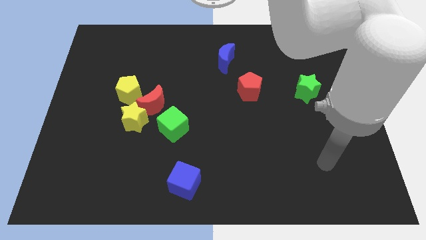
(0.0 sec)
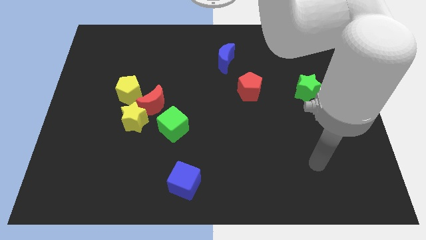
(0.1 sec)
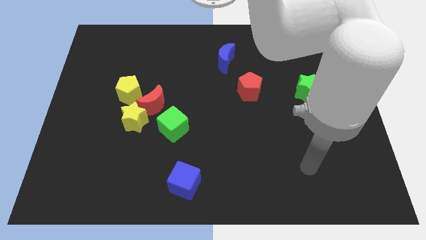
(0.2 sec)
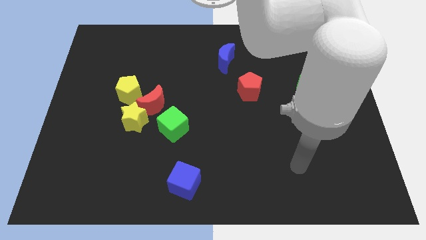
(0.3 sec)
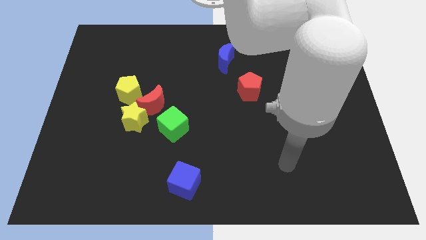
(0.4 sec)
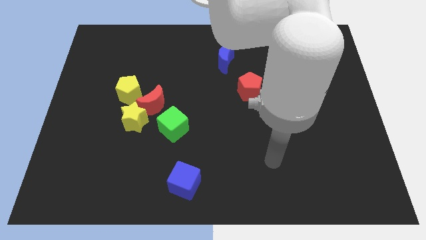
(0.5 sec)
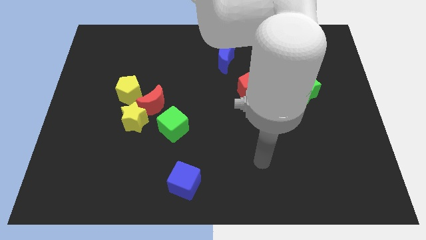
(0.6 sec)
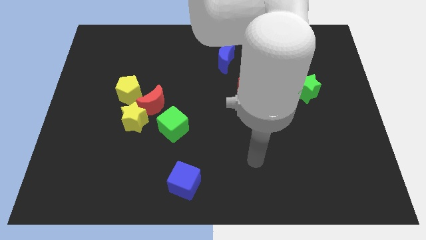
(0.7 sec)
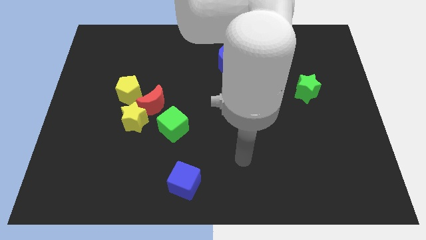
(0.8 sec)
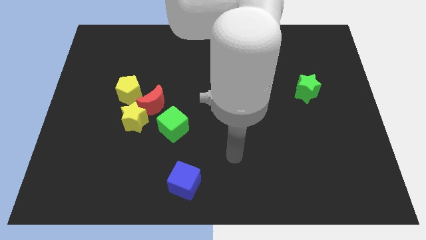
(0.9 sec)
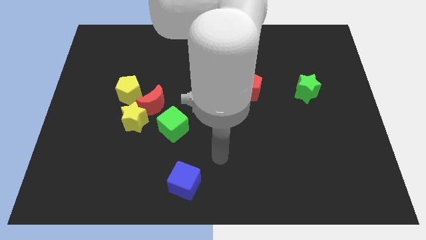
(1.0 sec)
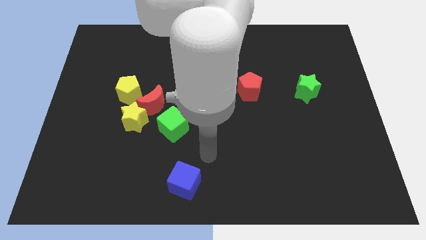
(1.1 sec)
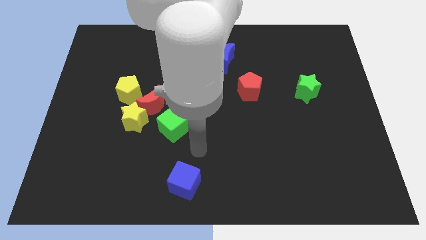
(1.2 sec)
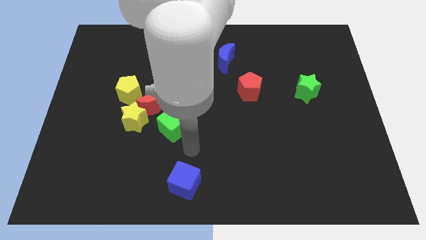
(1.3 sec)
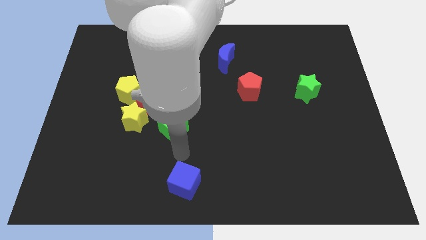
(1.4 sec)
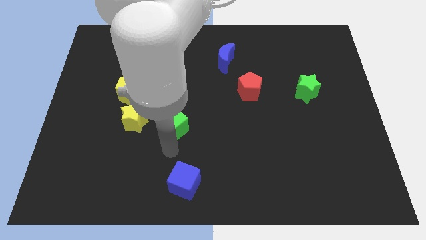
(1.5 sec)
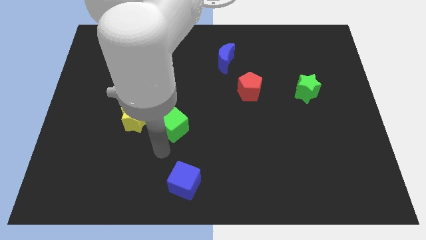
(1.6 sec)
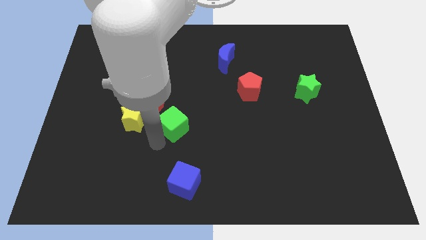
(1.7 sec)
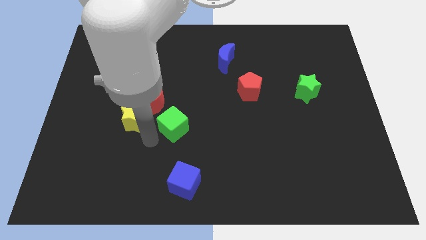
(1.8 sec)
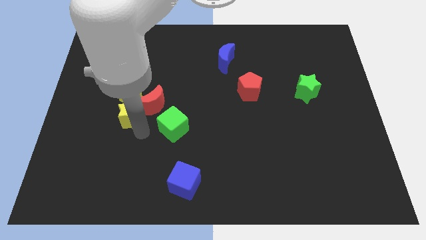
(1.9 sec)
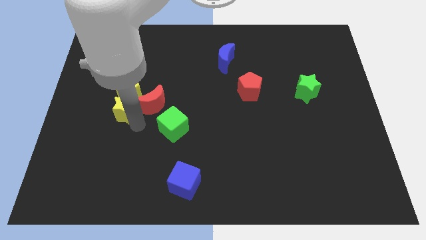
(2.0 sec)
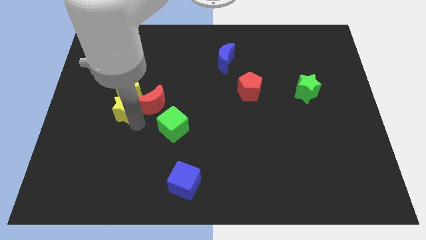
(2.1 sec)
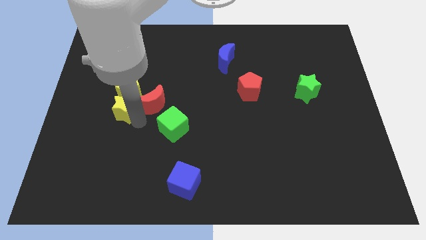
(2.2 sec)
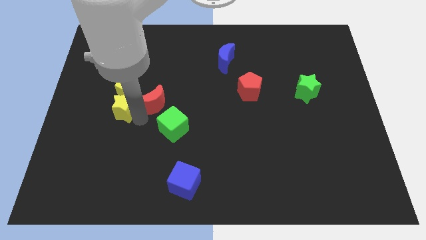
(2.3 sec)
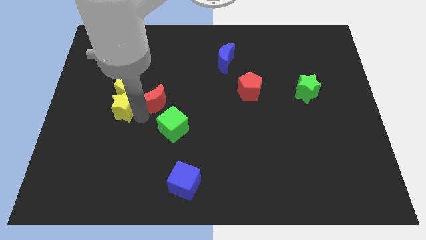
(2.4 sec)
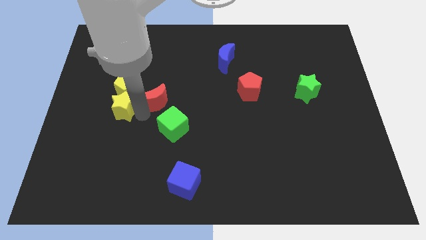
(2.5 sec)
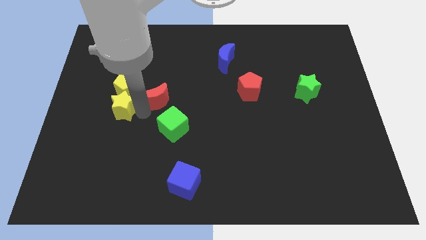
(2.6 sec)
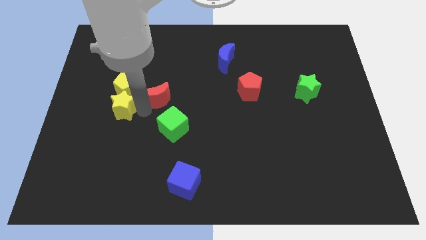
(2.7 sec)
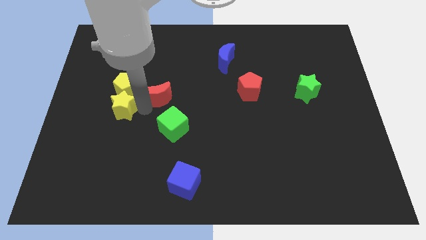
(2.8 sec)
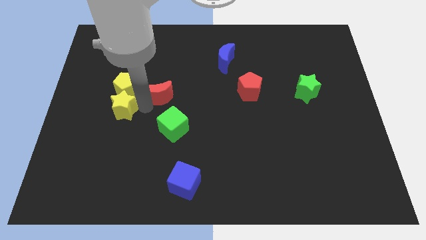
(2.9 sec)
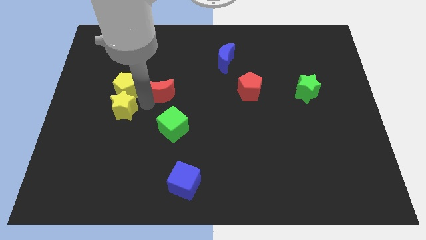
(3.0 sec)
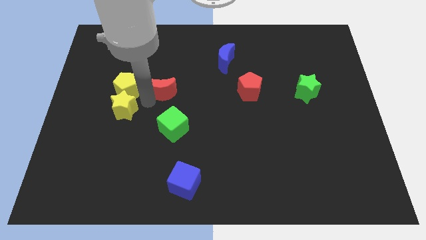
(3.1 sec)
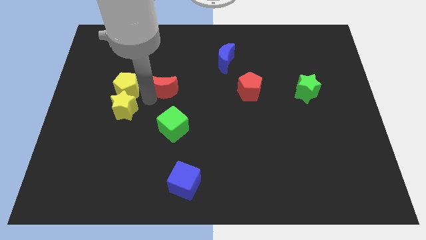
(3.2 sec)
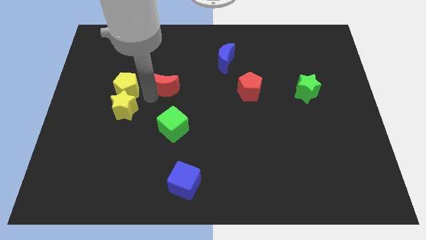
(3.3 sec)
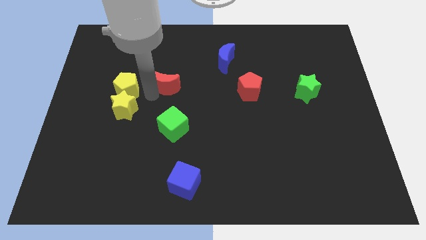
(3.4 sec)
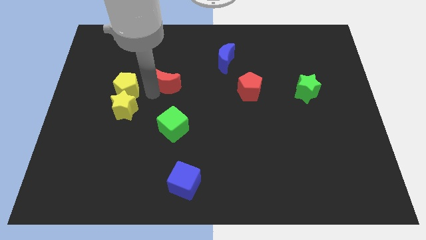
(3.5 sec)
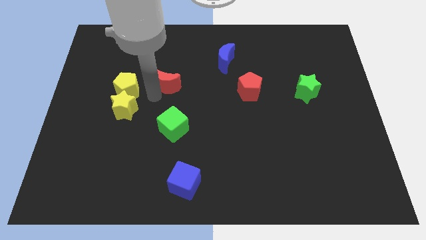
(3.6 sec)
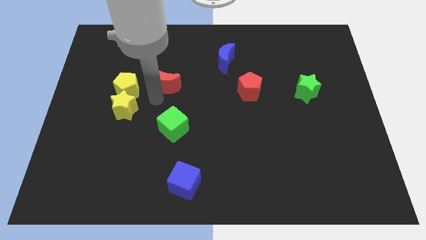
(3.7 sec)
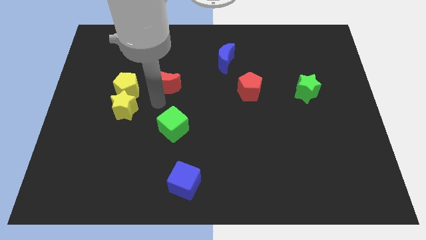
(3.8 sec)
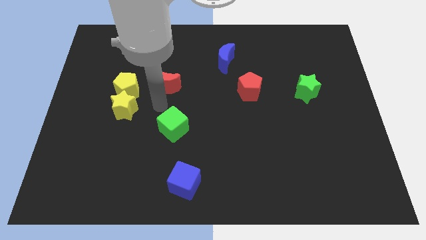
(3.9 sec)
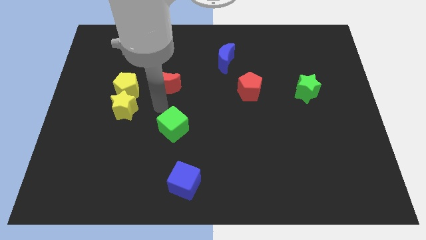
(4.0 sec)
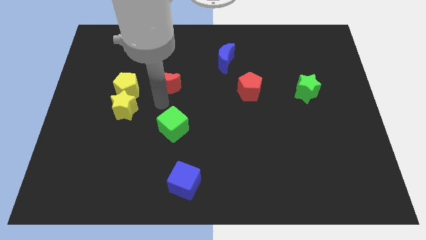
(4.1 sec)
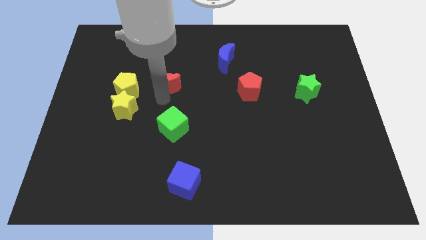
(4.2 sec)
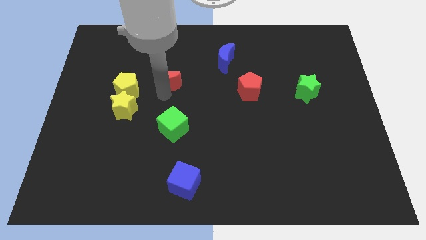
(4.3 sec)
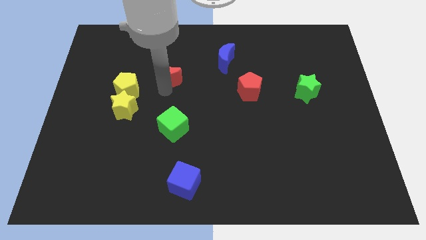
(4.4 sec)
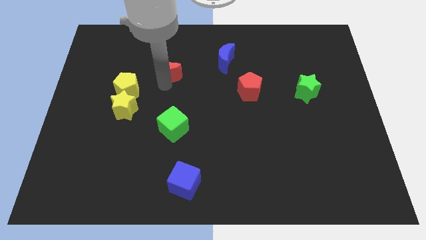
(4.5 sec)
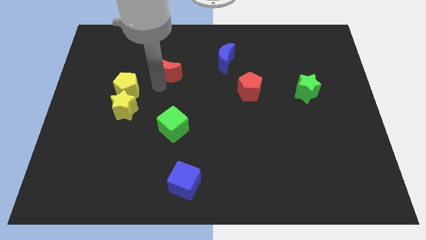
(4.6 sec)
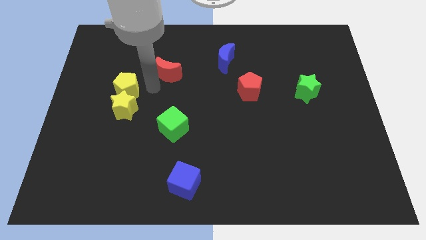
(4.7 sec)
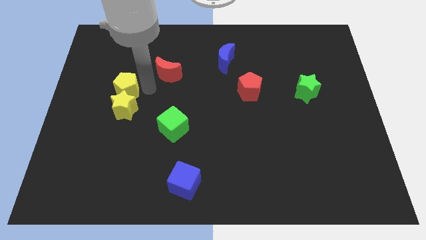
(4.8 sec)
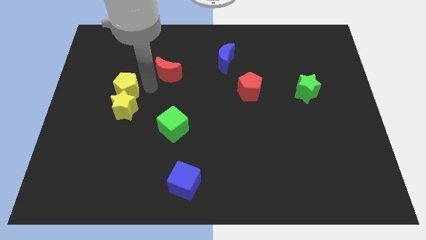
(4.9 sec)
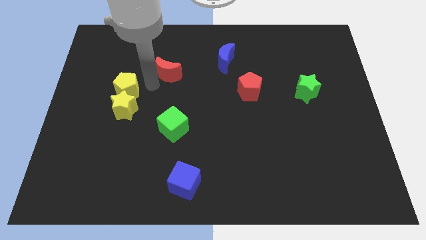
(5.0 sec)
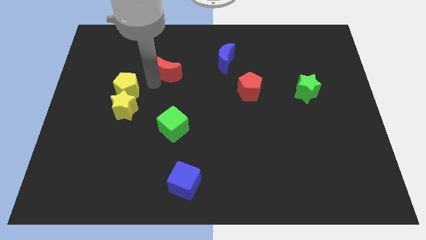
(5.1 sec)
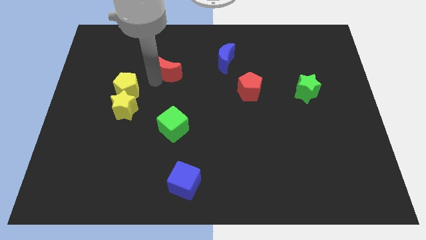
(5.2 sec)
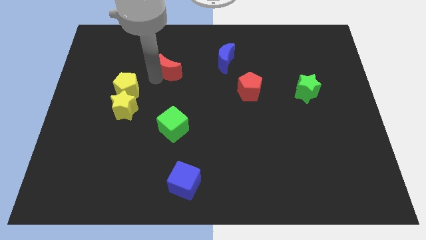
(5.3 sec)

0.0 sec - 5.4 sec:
move the red moon to the left of the blue moon
